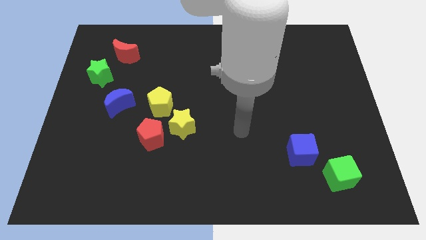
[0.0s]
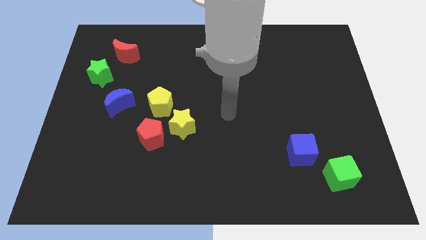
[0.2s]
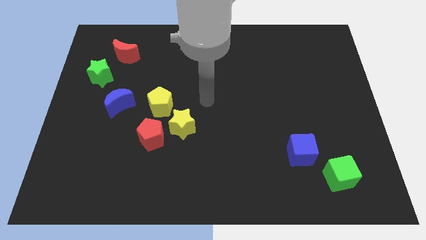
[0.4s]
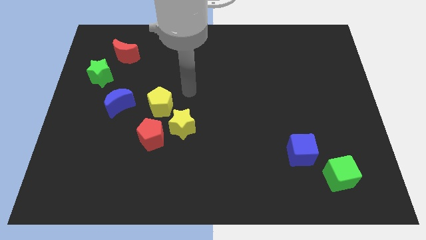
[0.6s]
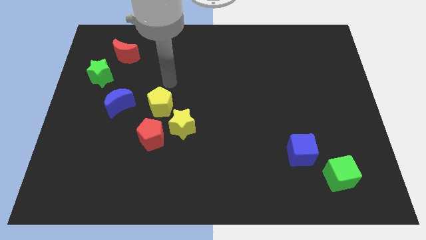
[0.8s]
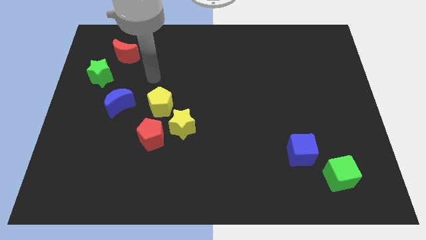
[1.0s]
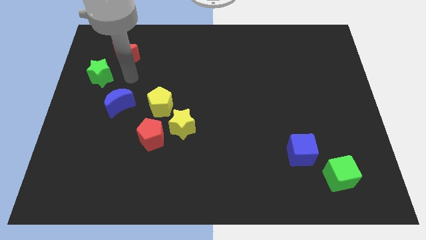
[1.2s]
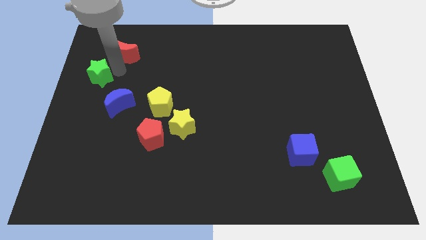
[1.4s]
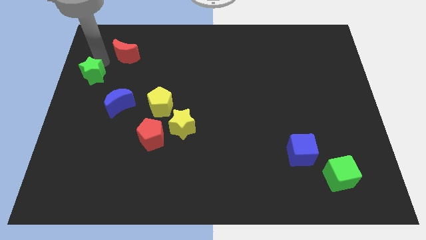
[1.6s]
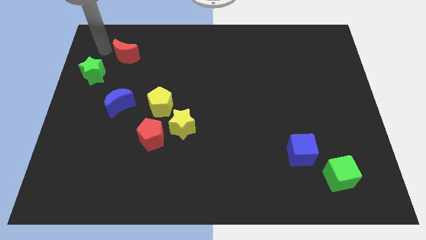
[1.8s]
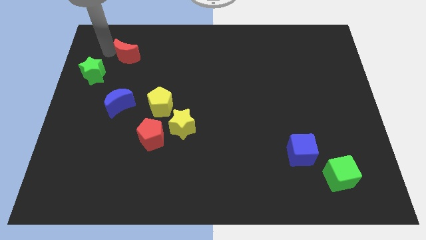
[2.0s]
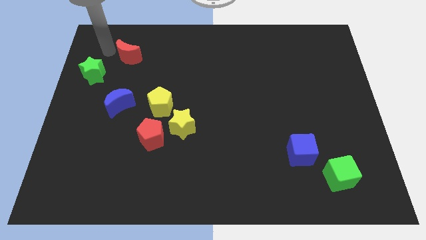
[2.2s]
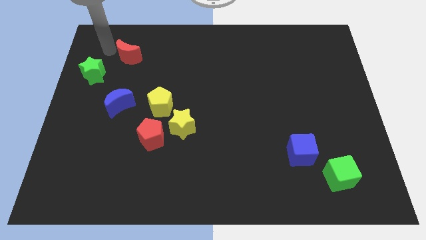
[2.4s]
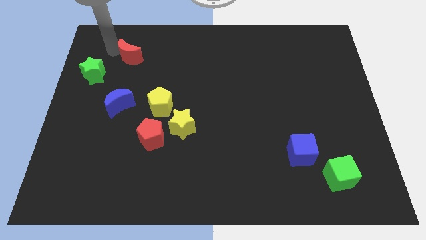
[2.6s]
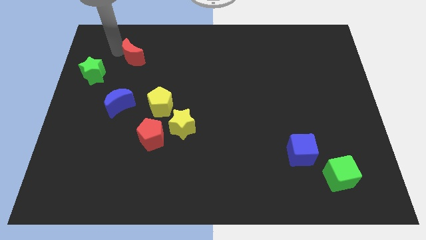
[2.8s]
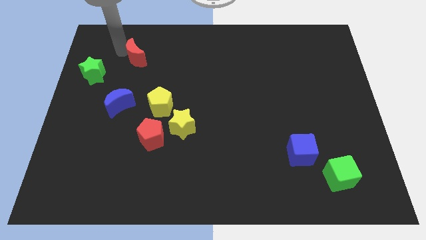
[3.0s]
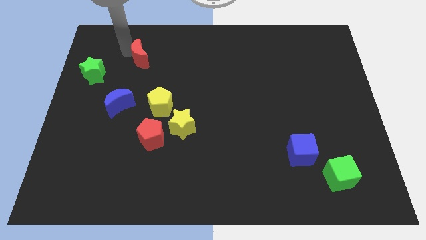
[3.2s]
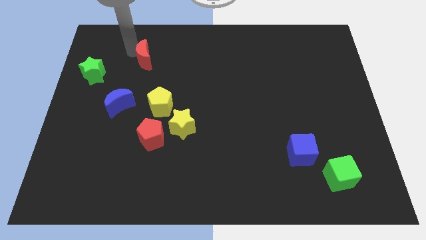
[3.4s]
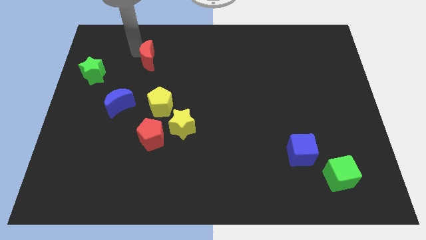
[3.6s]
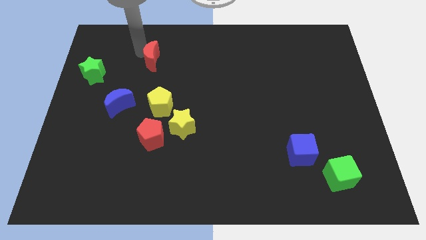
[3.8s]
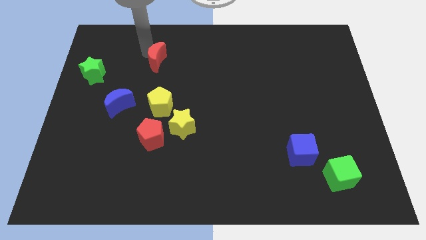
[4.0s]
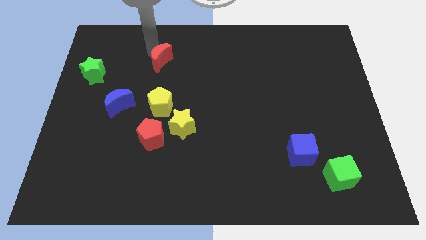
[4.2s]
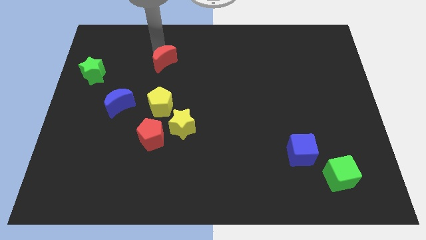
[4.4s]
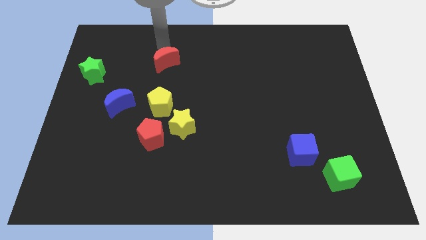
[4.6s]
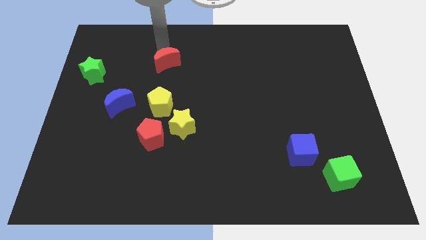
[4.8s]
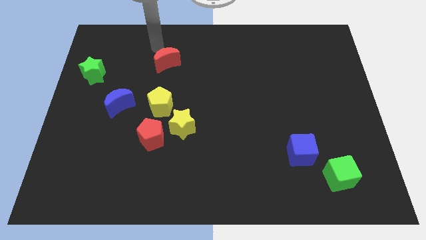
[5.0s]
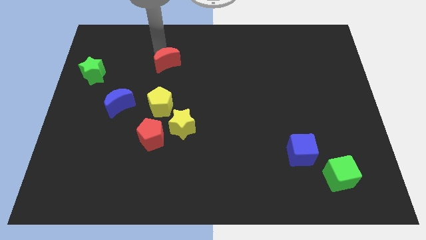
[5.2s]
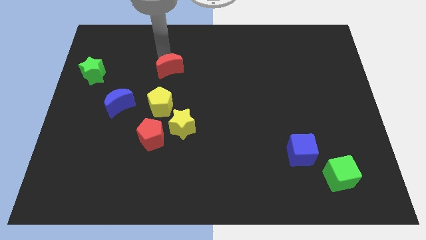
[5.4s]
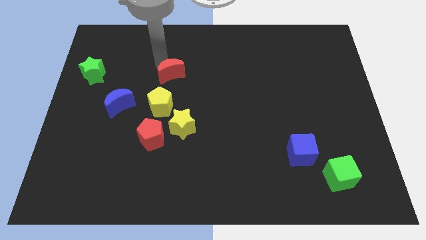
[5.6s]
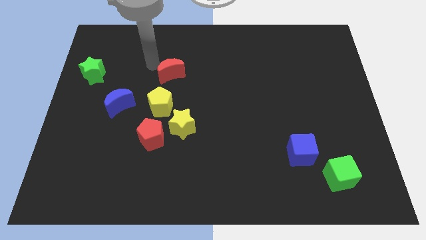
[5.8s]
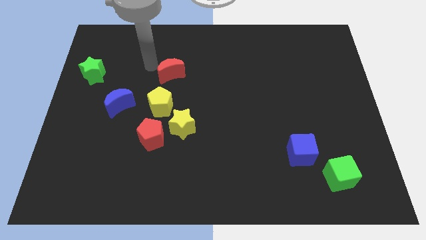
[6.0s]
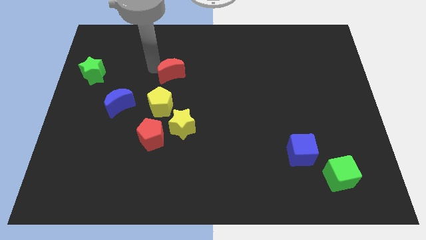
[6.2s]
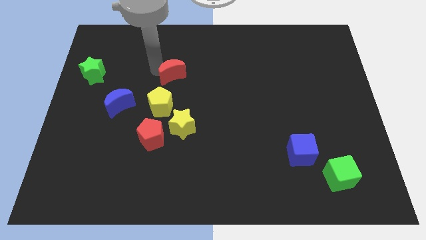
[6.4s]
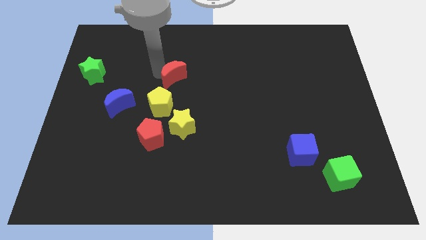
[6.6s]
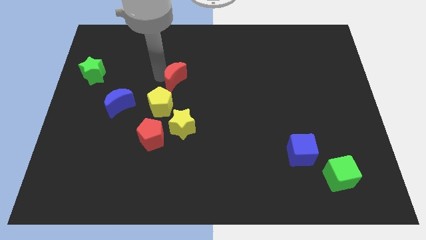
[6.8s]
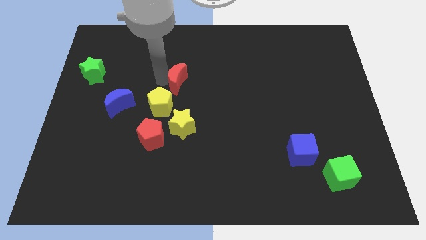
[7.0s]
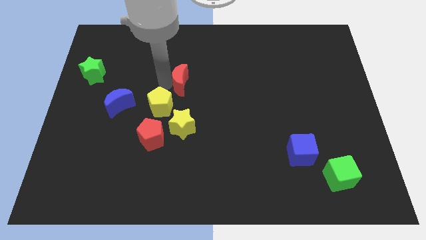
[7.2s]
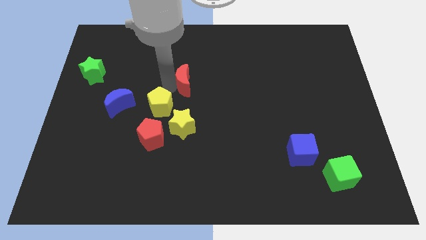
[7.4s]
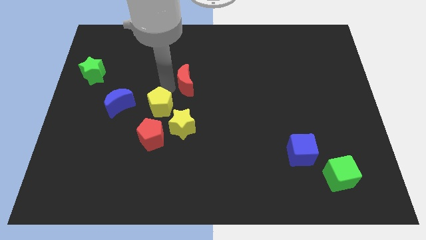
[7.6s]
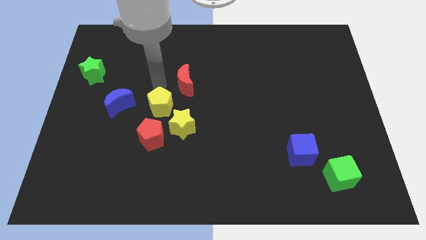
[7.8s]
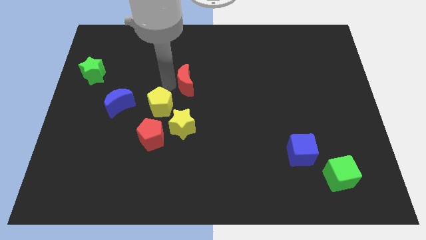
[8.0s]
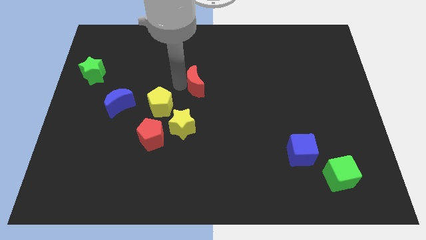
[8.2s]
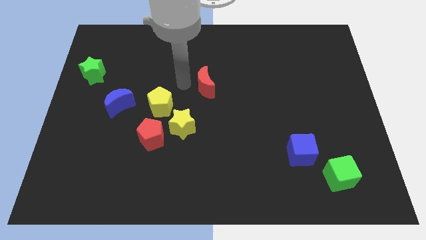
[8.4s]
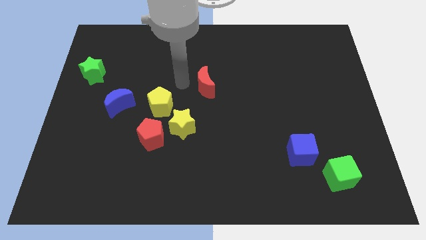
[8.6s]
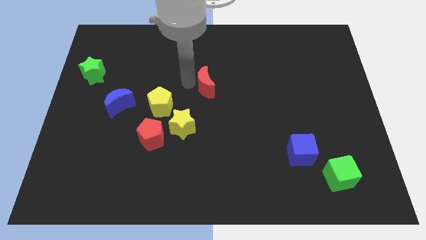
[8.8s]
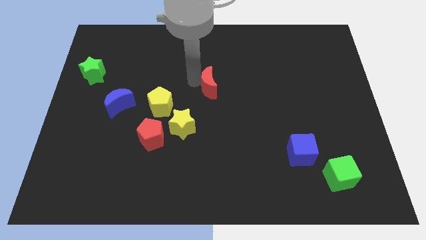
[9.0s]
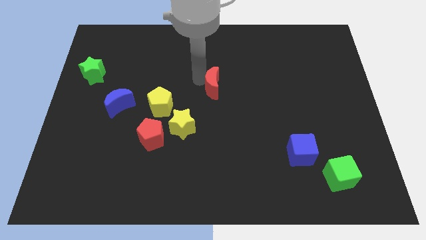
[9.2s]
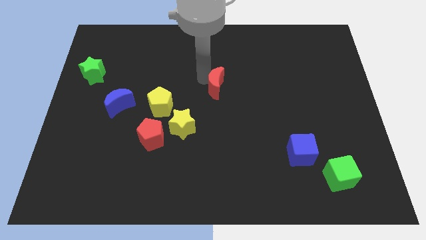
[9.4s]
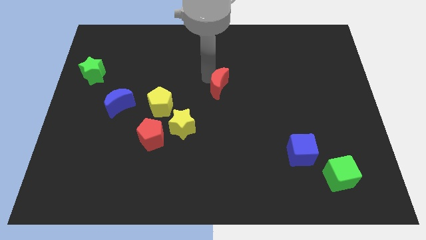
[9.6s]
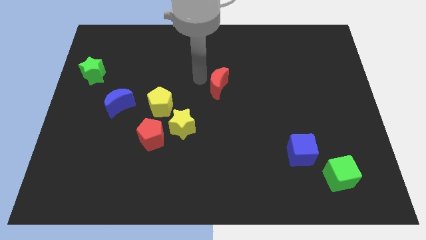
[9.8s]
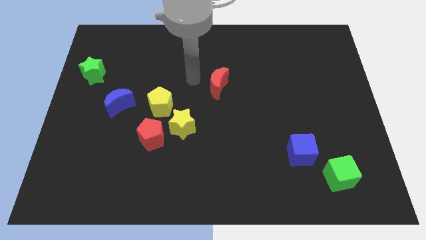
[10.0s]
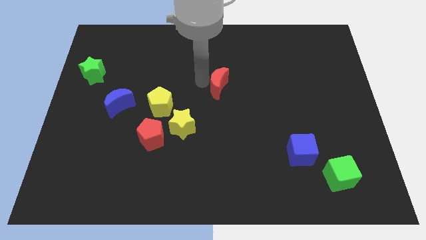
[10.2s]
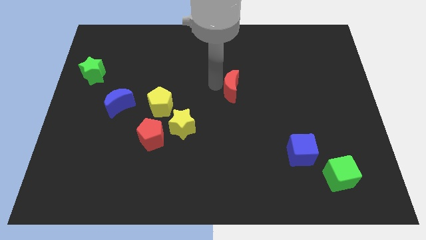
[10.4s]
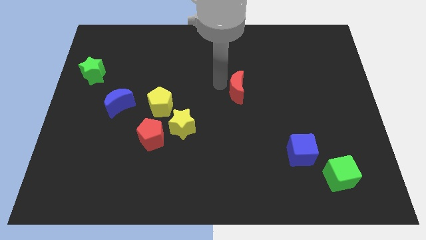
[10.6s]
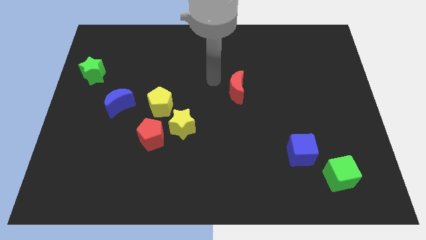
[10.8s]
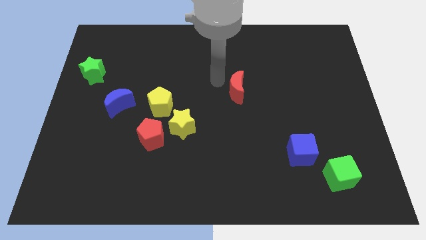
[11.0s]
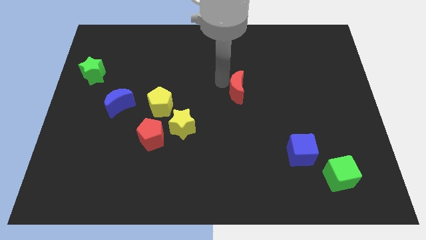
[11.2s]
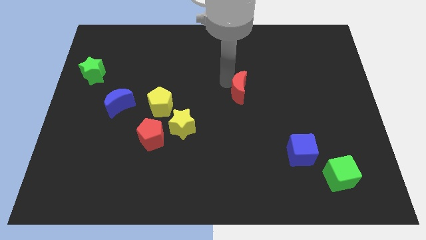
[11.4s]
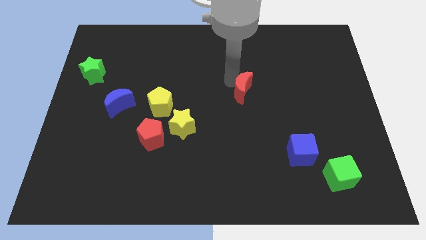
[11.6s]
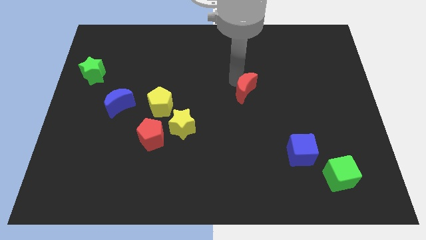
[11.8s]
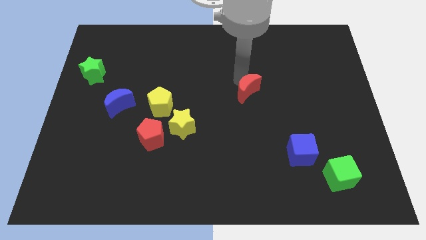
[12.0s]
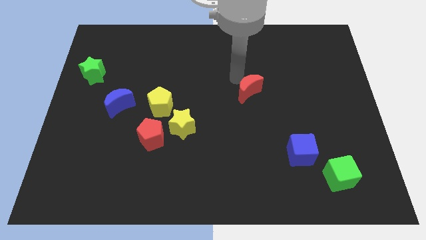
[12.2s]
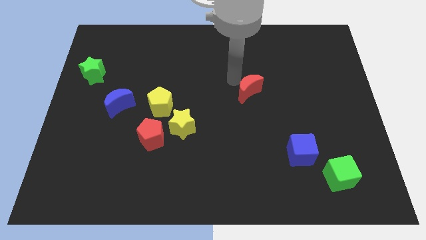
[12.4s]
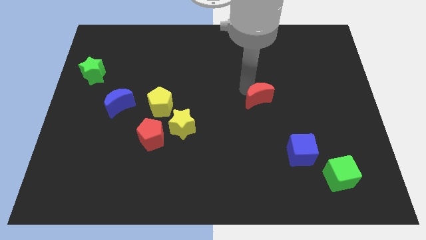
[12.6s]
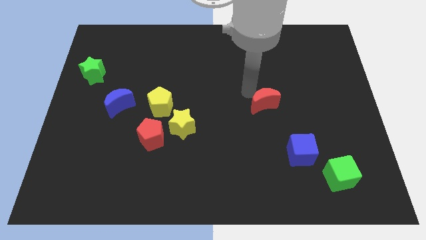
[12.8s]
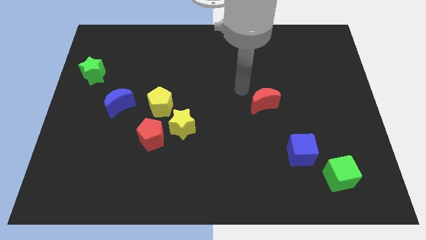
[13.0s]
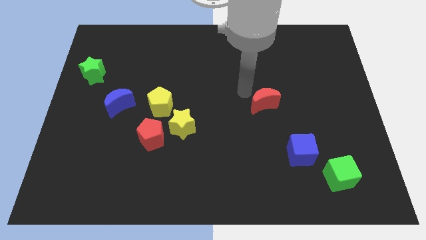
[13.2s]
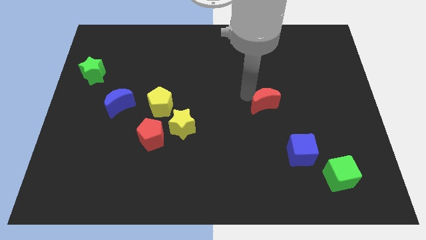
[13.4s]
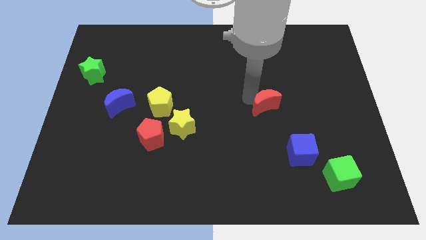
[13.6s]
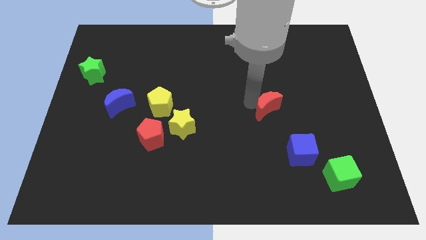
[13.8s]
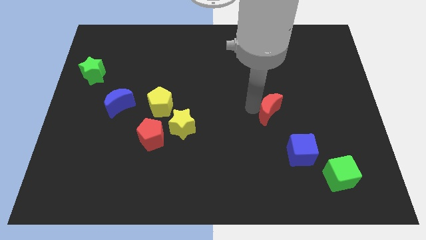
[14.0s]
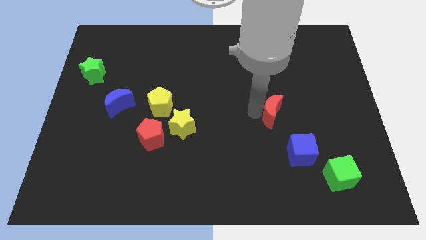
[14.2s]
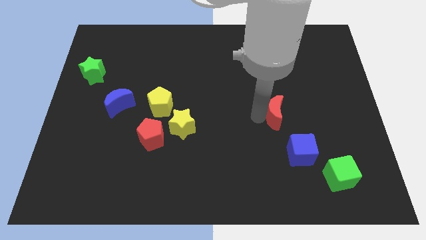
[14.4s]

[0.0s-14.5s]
slide the red moon above the blue cube
